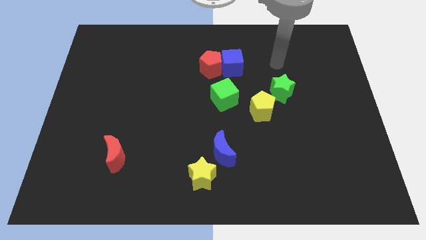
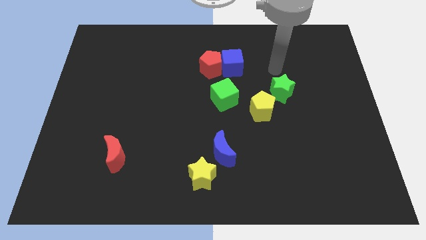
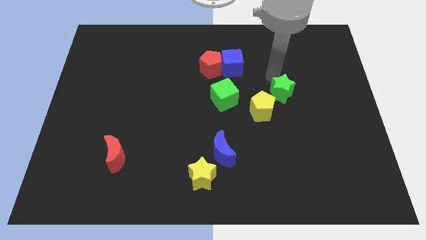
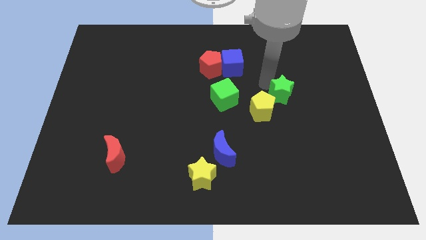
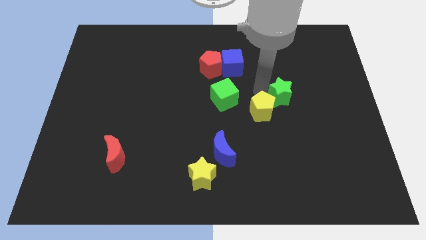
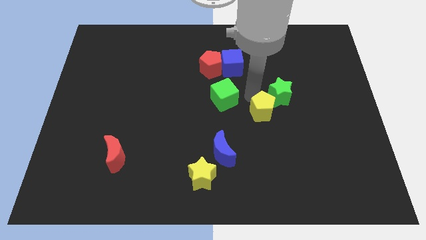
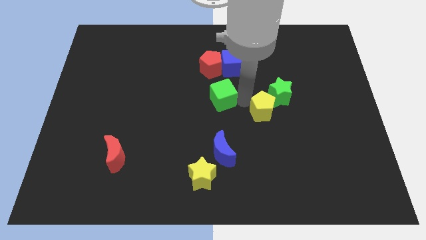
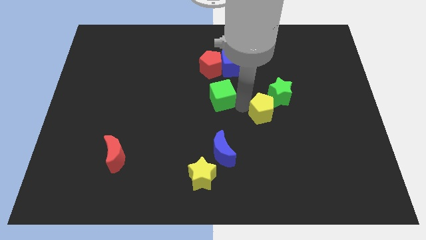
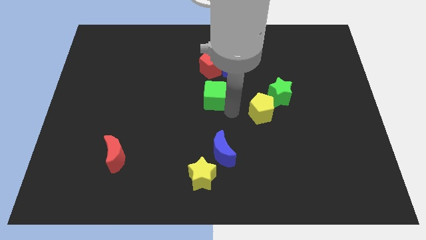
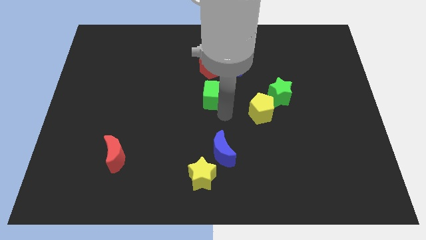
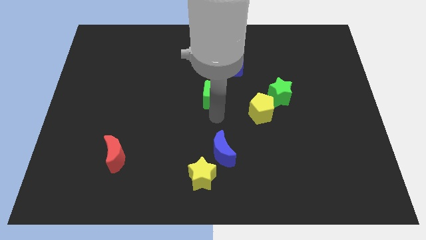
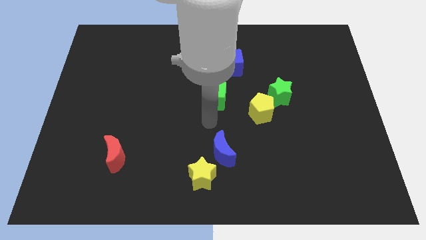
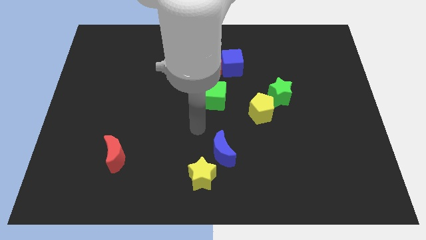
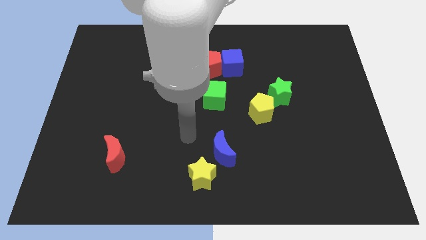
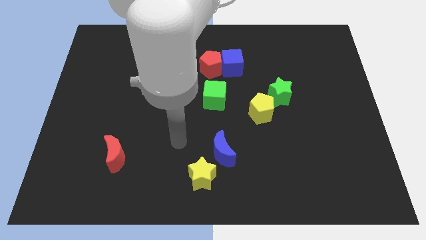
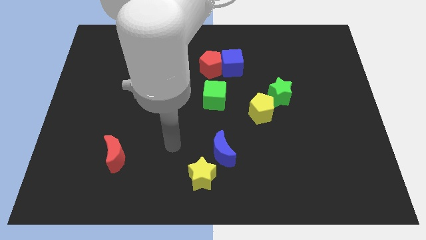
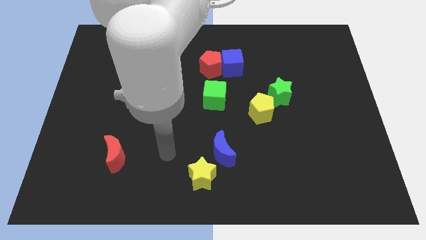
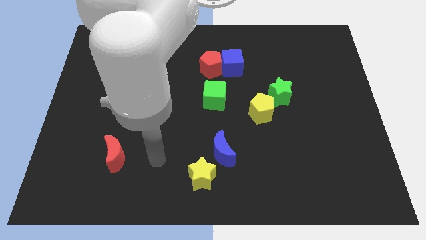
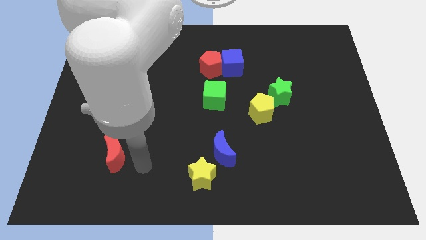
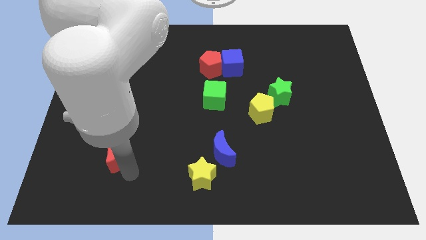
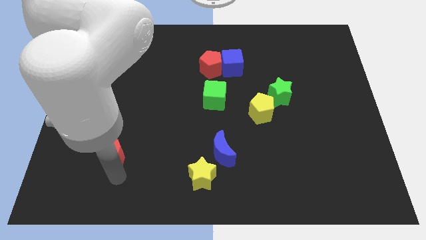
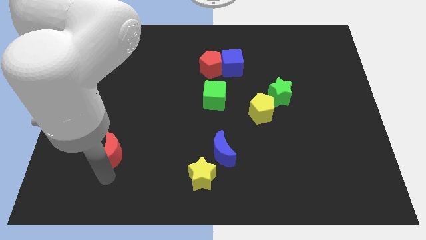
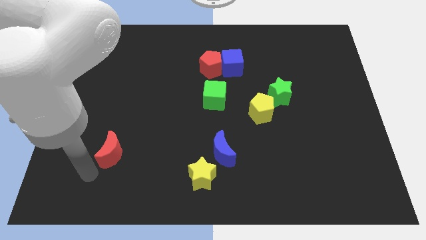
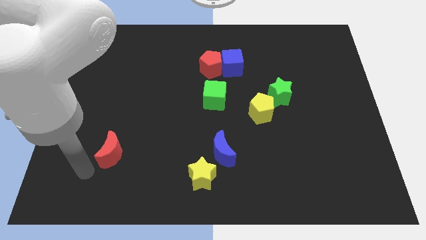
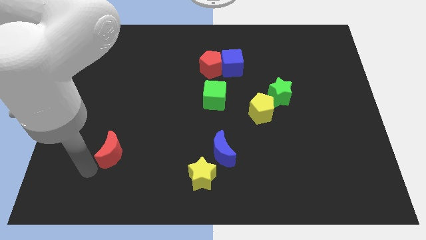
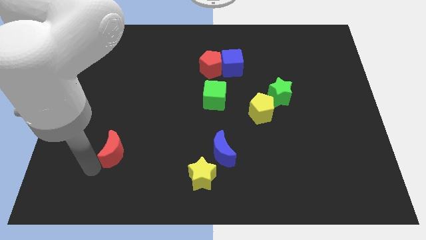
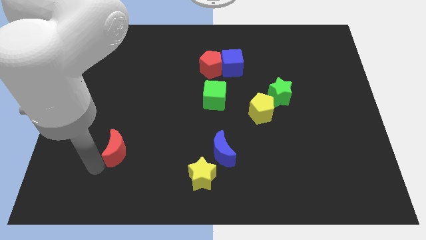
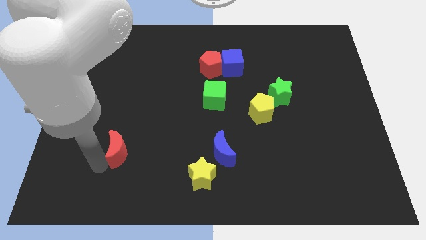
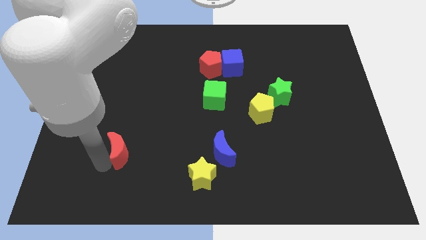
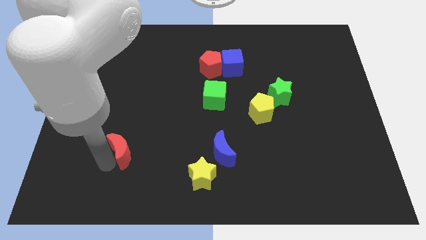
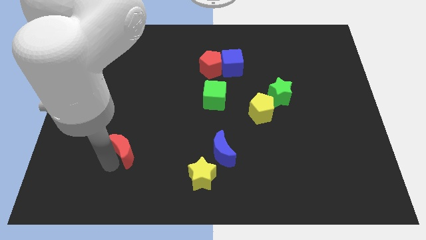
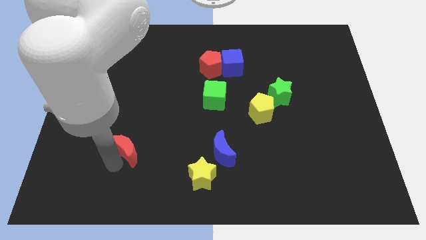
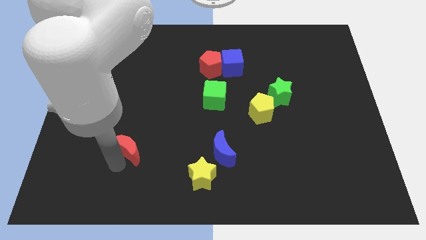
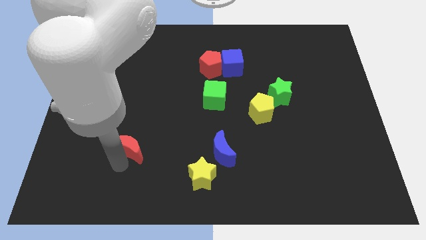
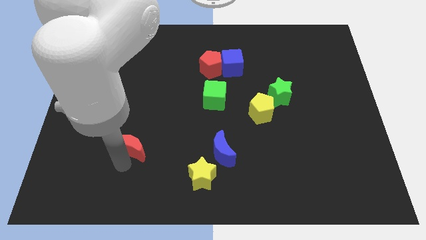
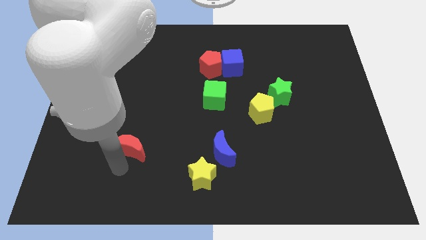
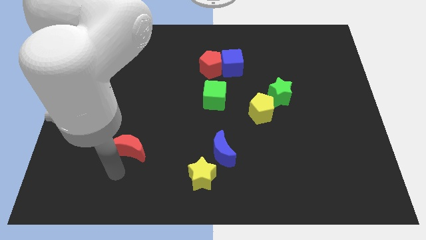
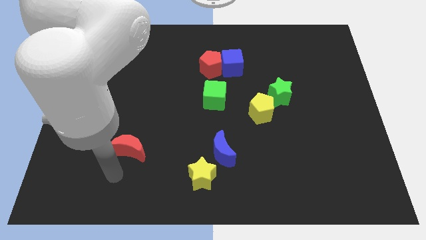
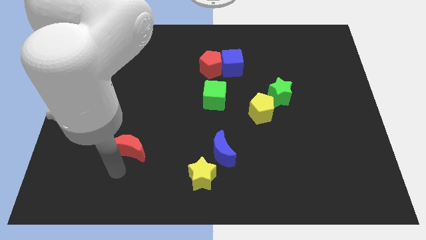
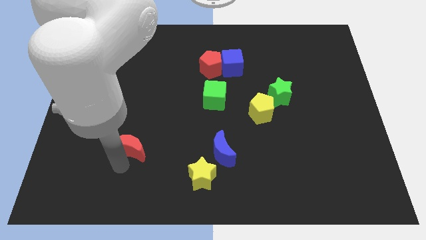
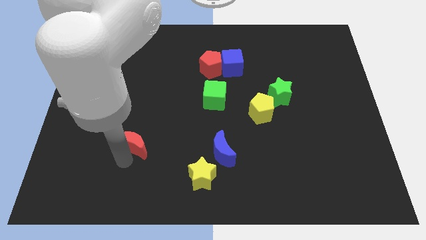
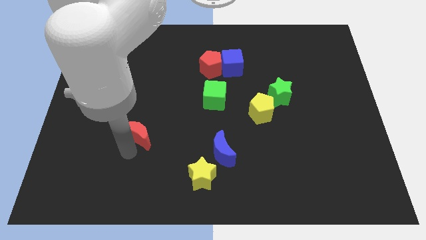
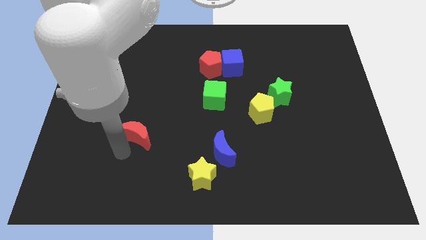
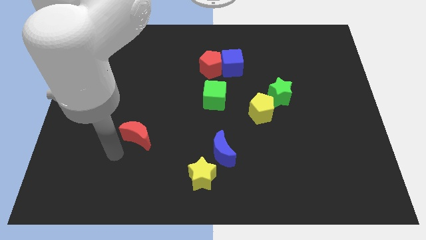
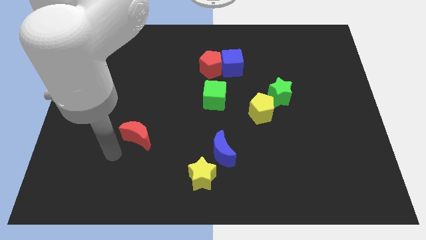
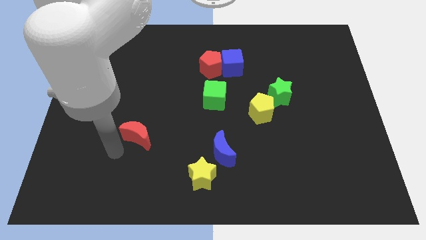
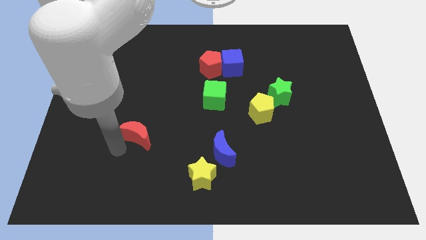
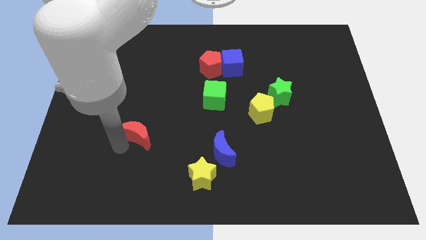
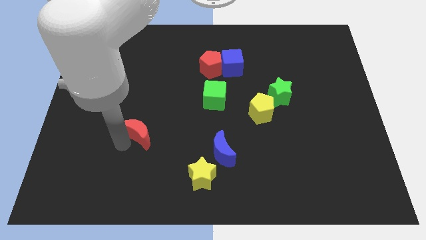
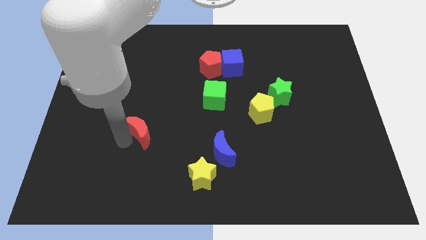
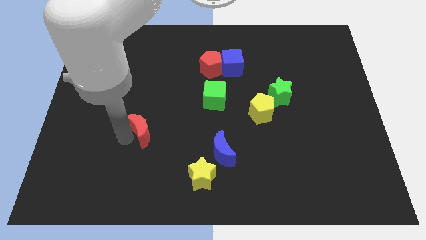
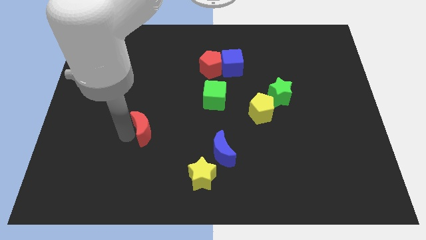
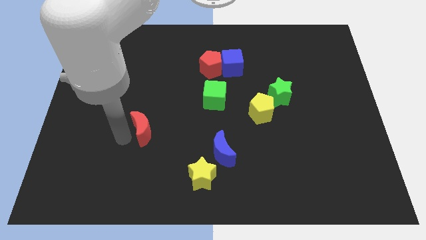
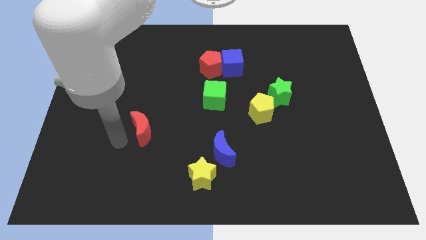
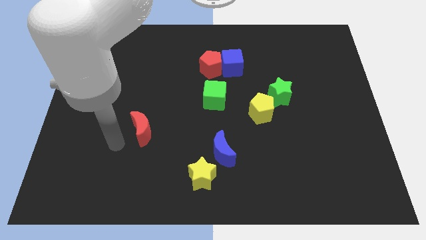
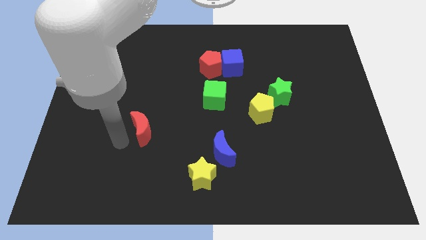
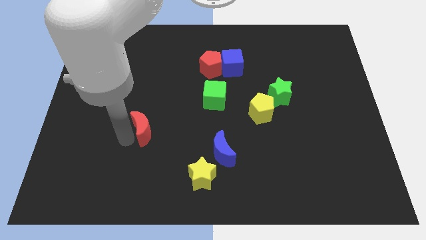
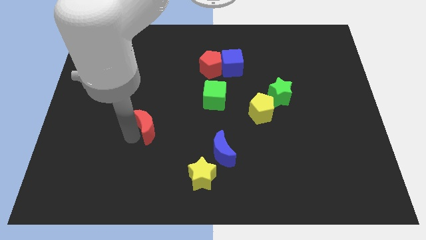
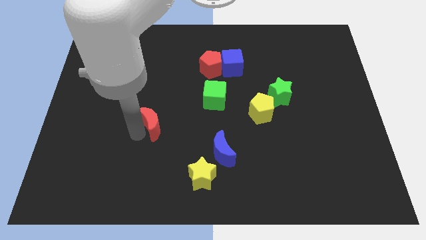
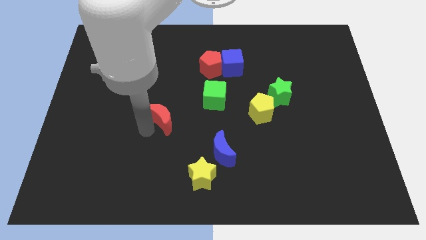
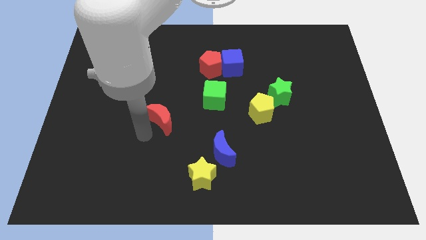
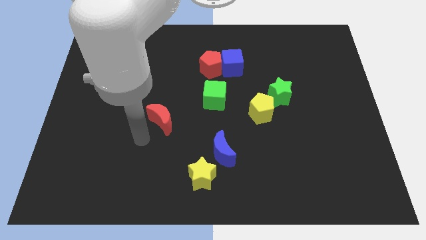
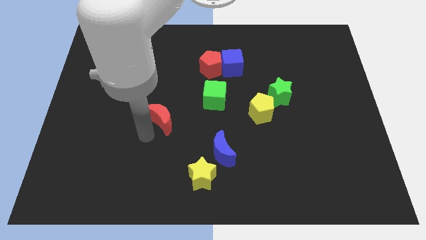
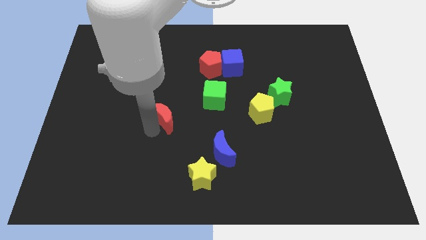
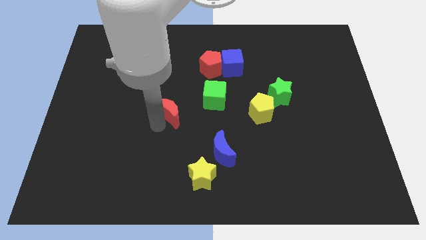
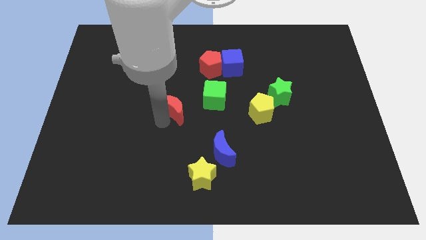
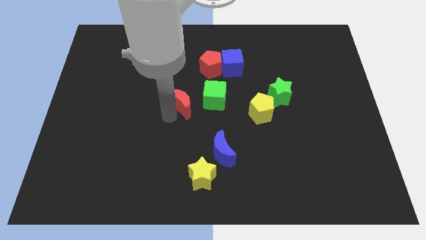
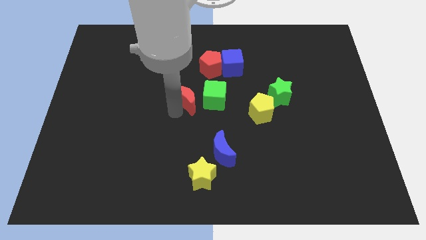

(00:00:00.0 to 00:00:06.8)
slide the red moon upwards and right

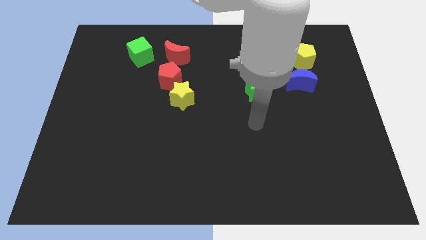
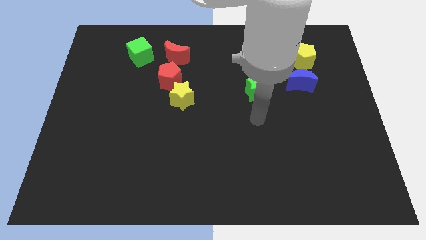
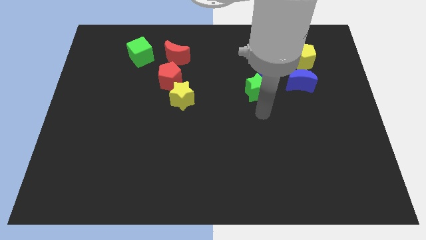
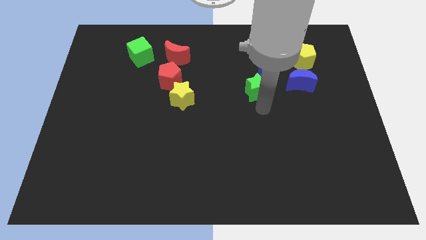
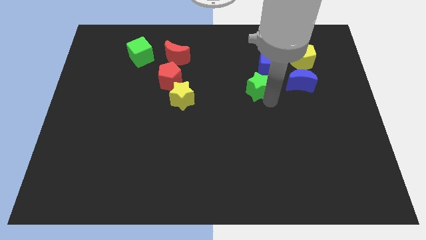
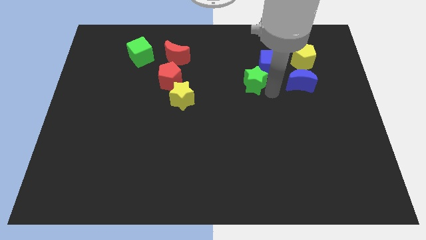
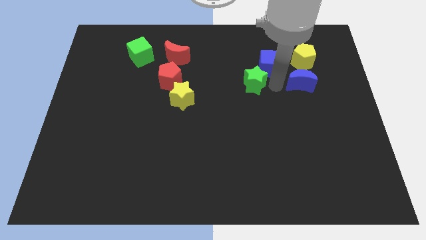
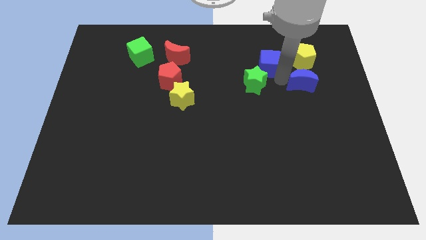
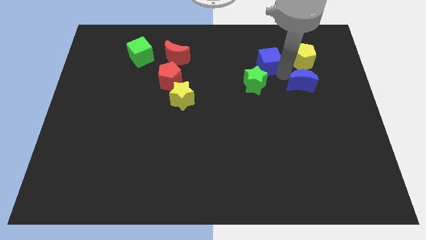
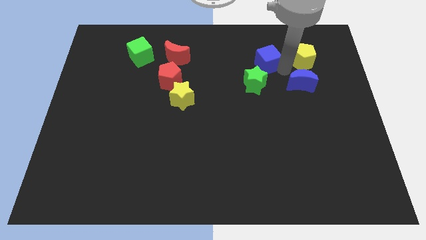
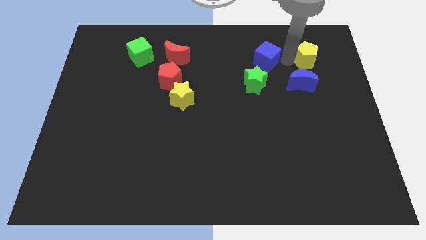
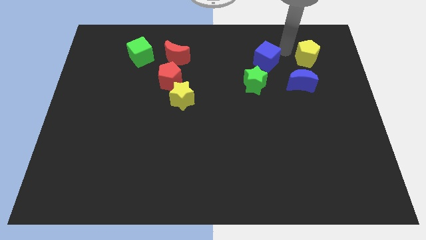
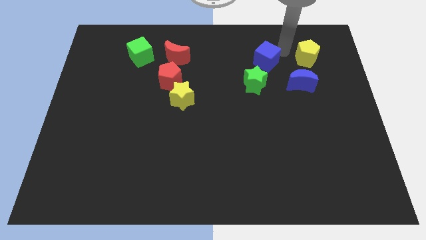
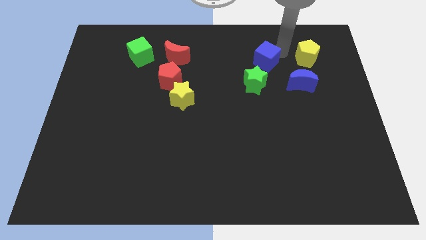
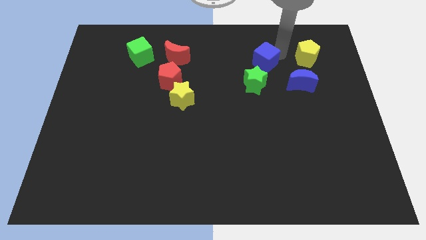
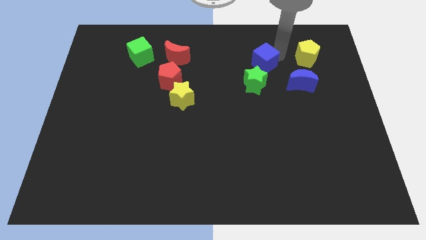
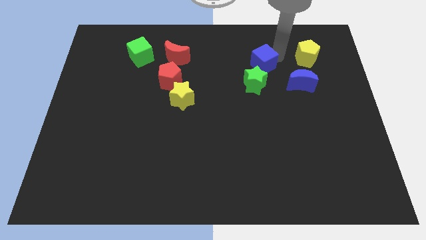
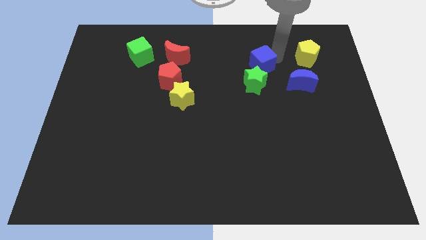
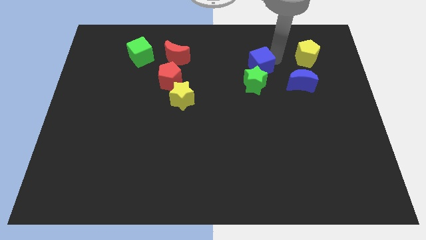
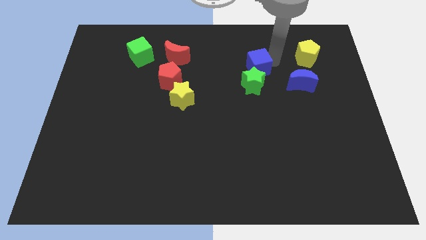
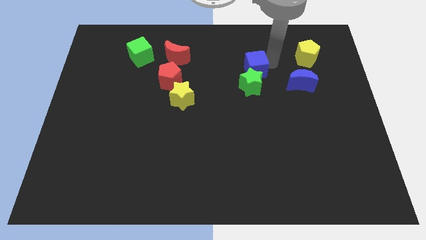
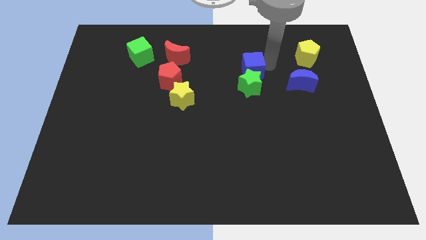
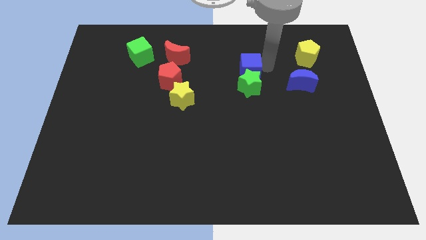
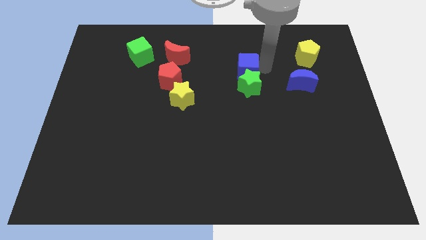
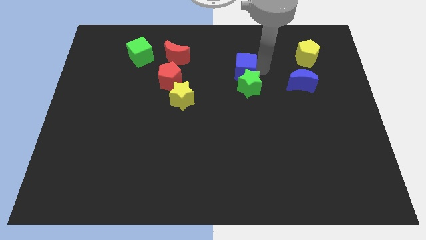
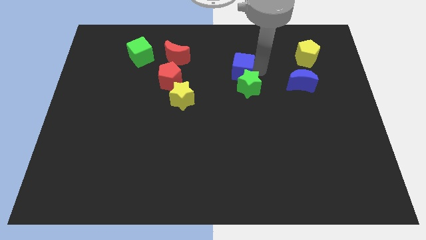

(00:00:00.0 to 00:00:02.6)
slightly move the blue cube to the left
